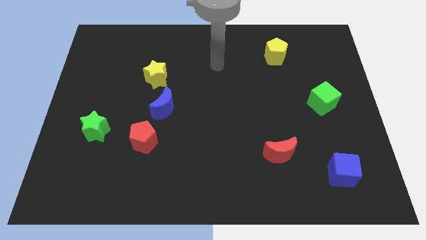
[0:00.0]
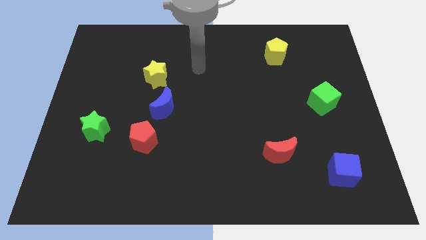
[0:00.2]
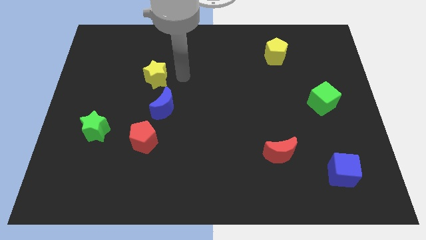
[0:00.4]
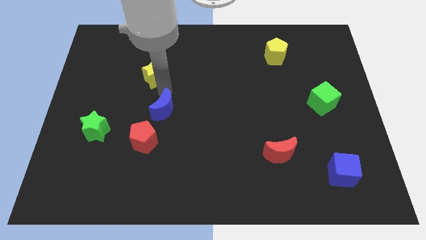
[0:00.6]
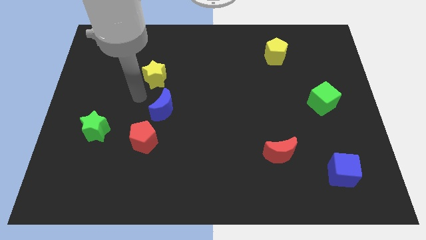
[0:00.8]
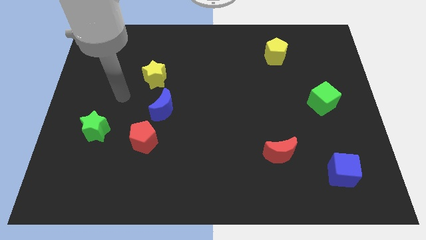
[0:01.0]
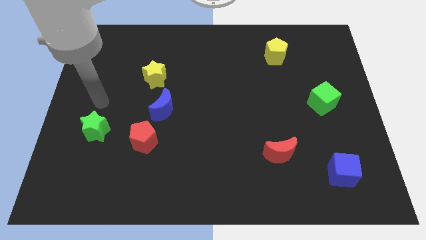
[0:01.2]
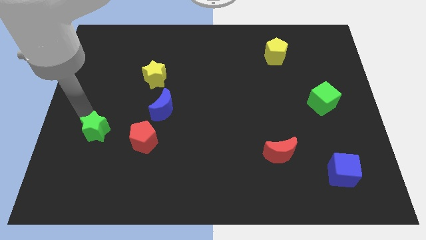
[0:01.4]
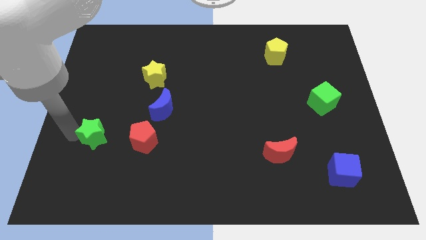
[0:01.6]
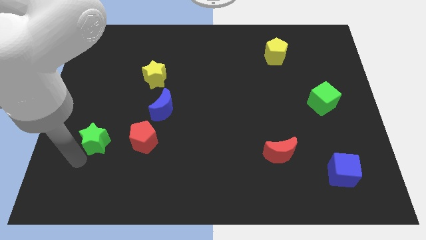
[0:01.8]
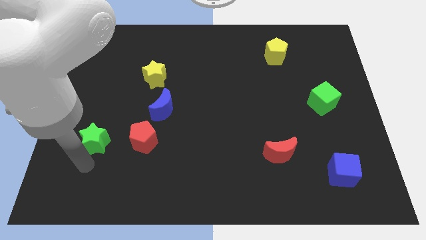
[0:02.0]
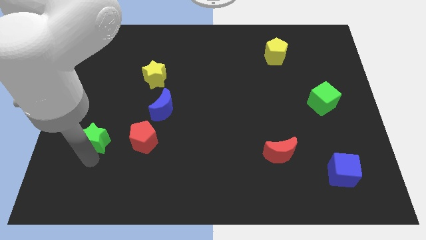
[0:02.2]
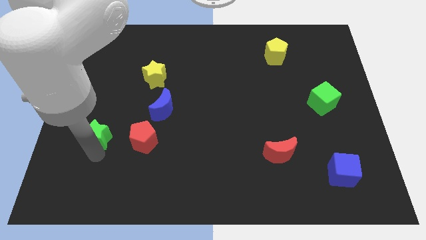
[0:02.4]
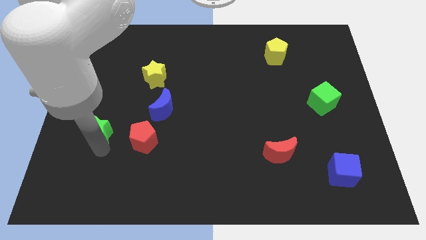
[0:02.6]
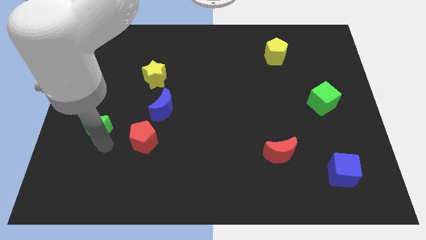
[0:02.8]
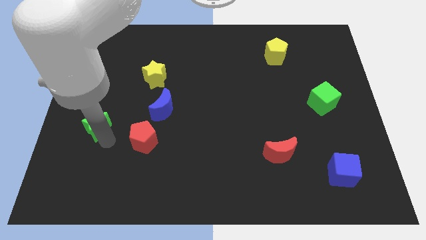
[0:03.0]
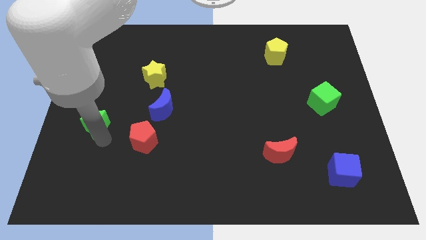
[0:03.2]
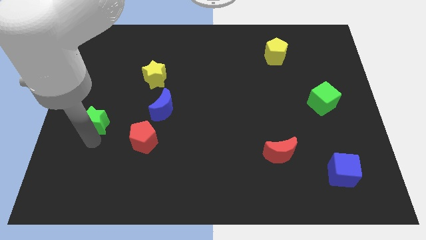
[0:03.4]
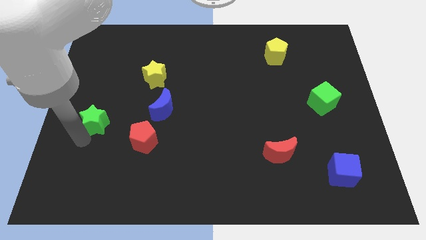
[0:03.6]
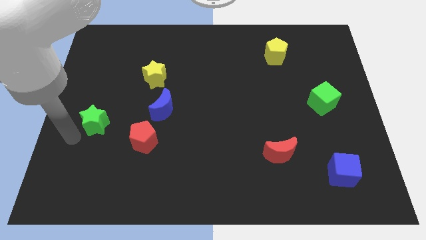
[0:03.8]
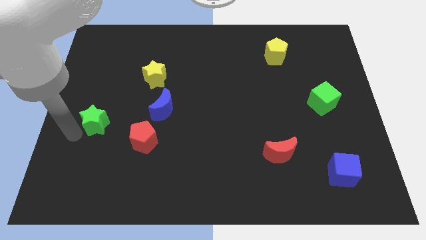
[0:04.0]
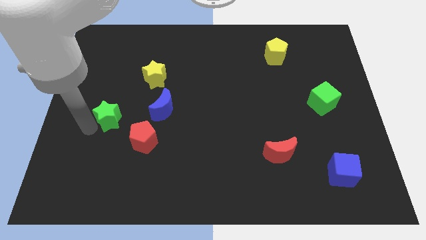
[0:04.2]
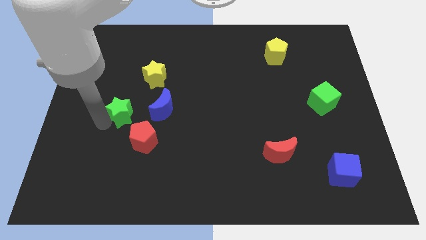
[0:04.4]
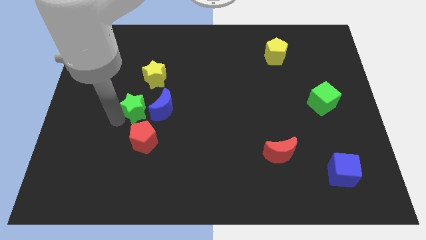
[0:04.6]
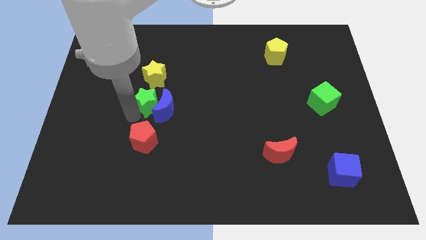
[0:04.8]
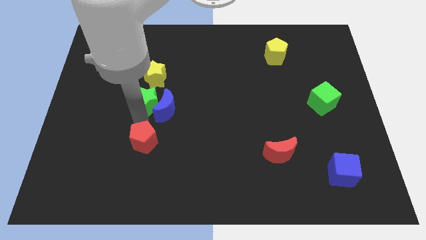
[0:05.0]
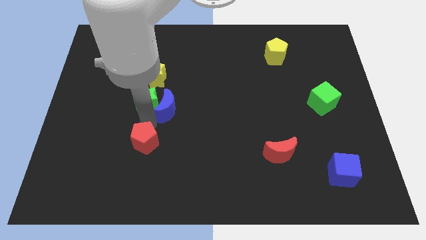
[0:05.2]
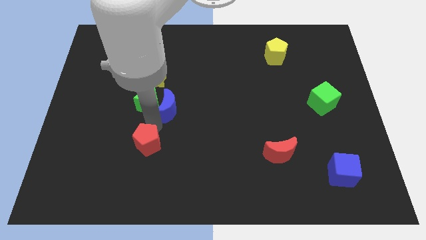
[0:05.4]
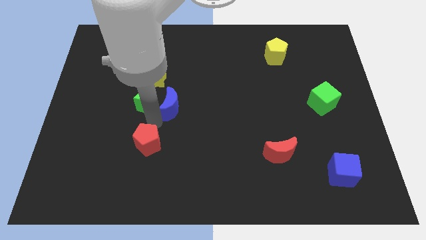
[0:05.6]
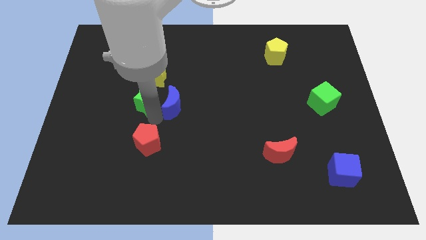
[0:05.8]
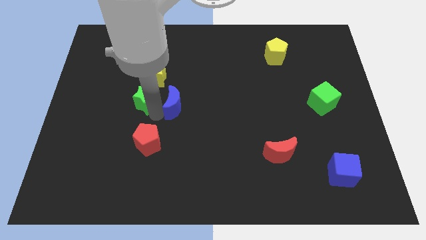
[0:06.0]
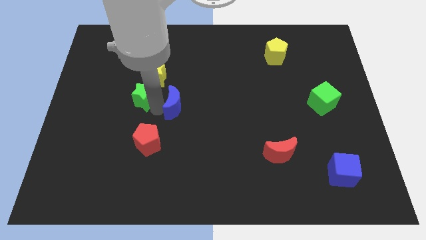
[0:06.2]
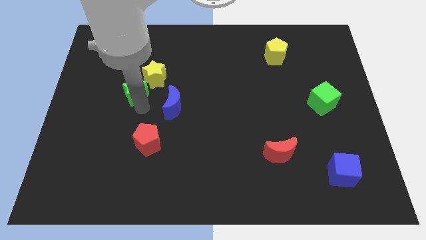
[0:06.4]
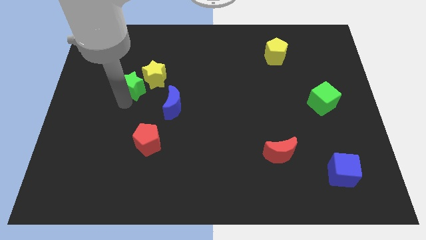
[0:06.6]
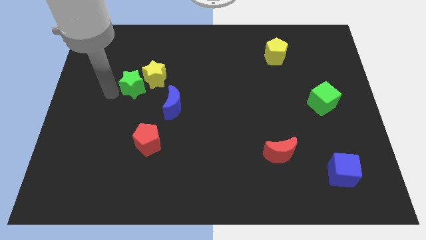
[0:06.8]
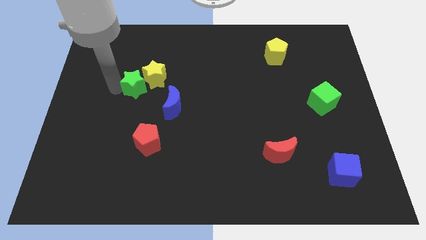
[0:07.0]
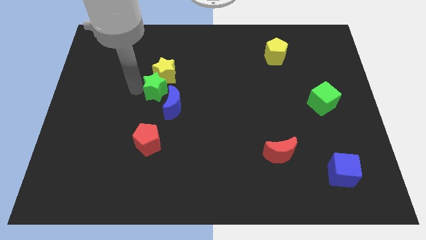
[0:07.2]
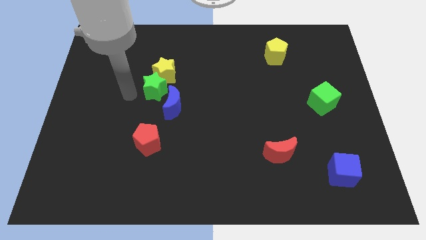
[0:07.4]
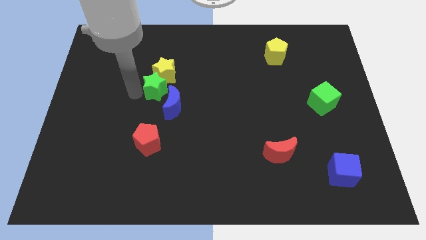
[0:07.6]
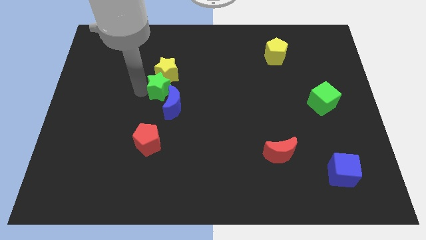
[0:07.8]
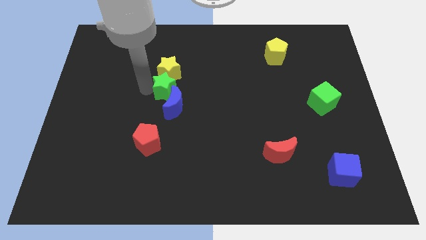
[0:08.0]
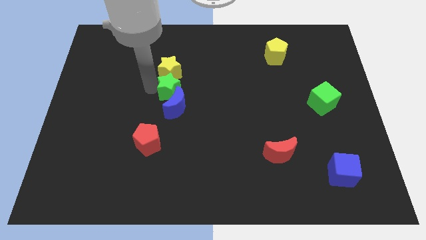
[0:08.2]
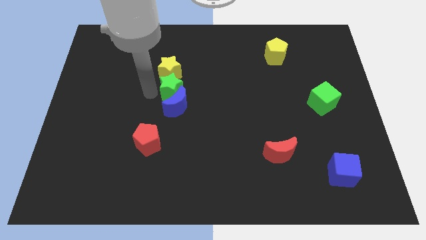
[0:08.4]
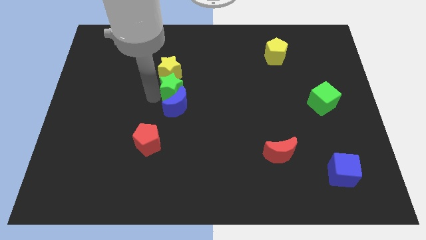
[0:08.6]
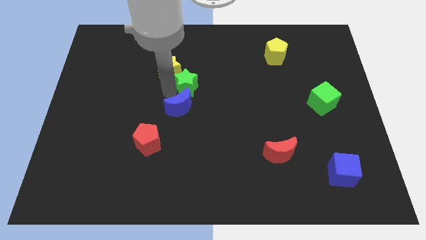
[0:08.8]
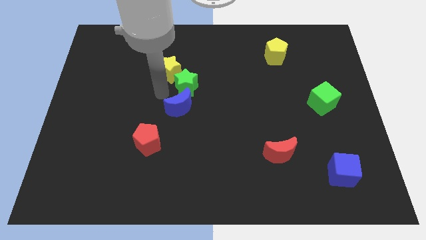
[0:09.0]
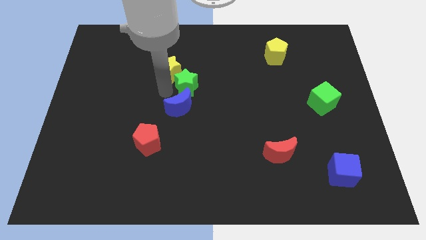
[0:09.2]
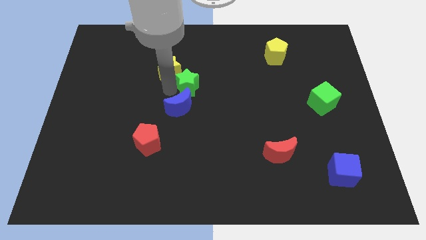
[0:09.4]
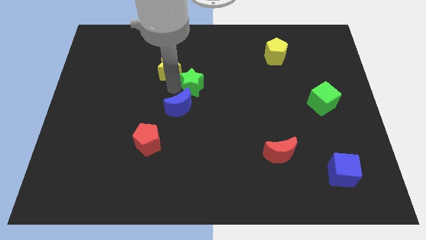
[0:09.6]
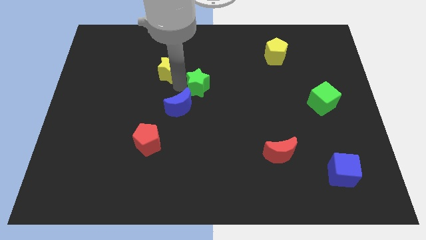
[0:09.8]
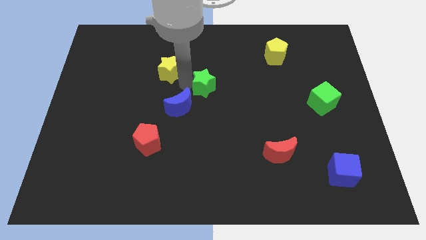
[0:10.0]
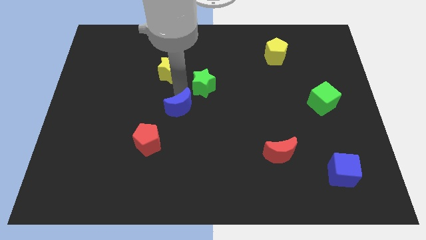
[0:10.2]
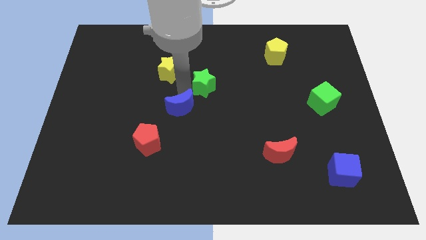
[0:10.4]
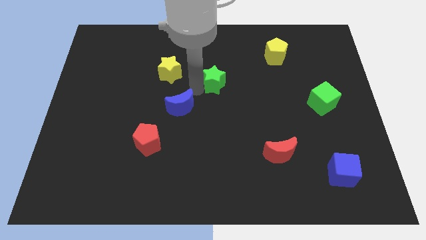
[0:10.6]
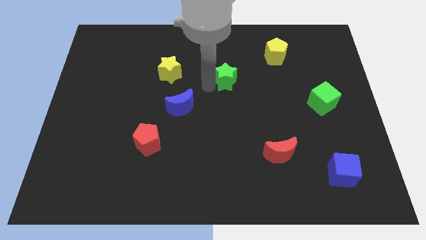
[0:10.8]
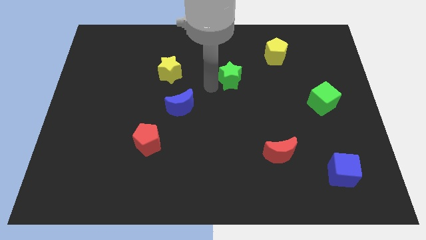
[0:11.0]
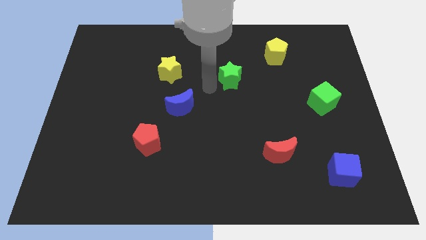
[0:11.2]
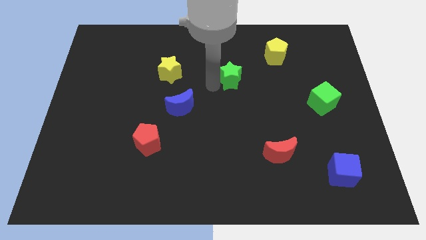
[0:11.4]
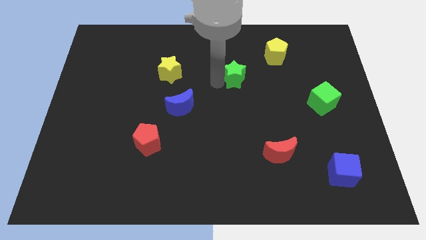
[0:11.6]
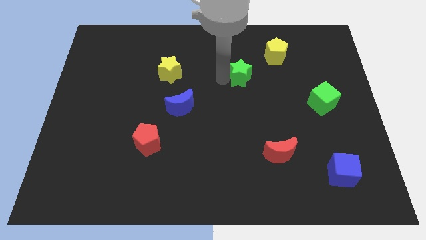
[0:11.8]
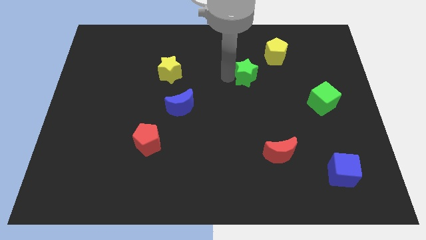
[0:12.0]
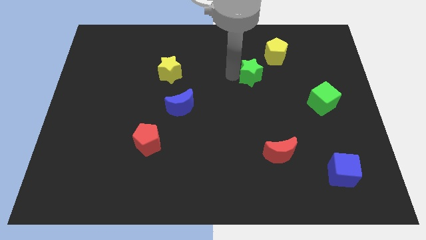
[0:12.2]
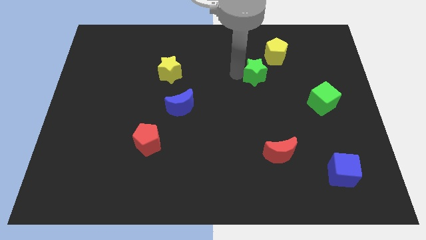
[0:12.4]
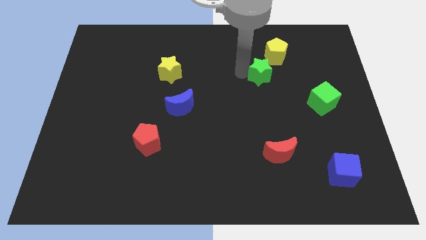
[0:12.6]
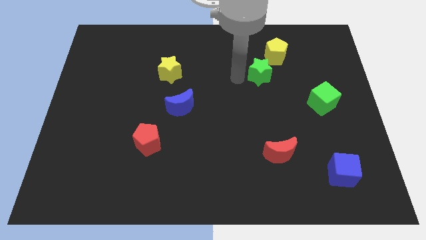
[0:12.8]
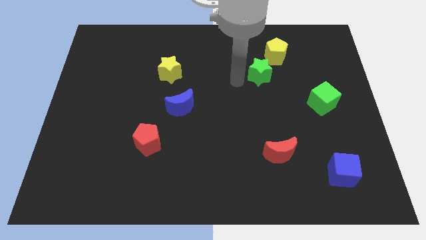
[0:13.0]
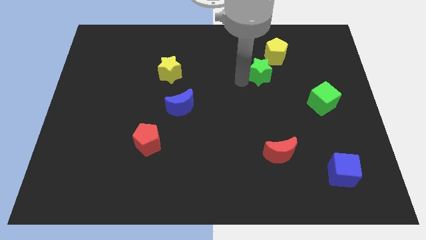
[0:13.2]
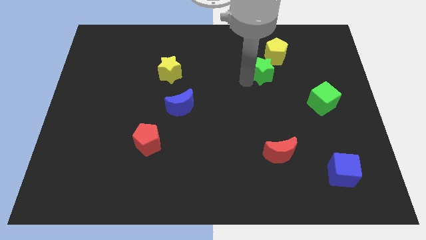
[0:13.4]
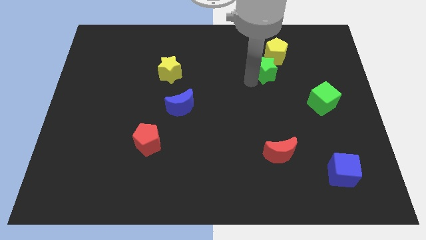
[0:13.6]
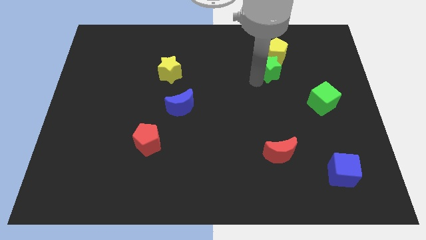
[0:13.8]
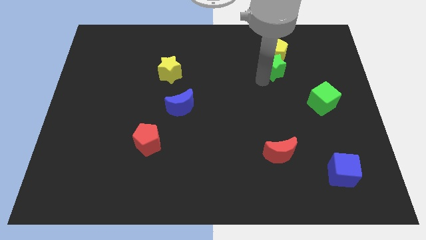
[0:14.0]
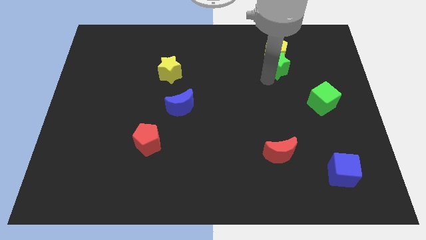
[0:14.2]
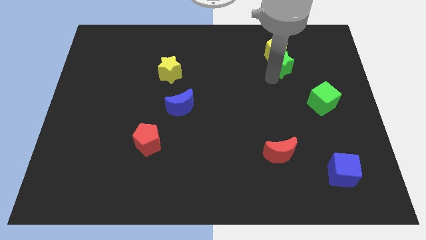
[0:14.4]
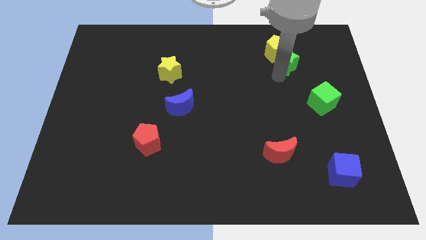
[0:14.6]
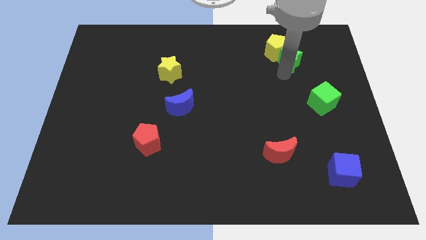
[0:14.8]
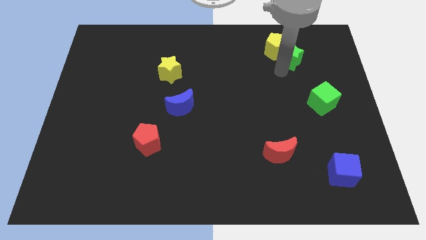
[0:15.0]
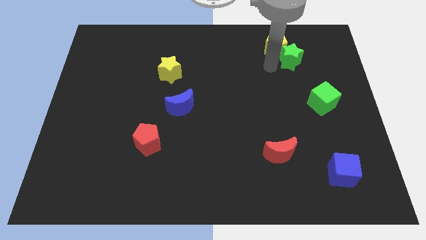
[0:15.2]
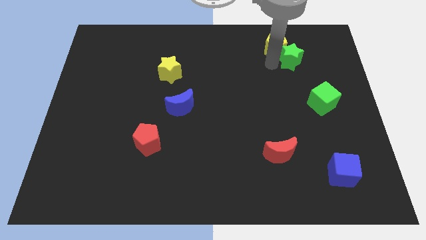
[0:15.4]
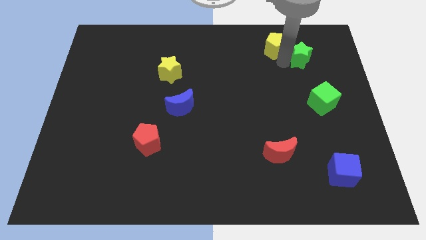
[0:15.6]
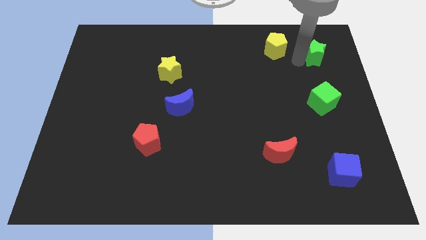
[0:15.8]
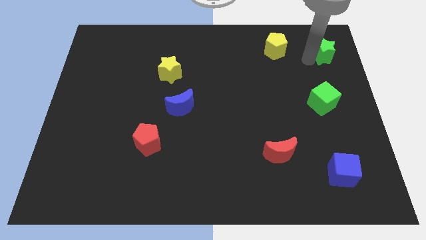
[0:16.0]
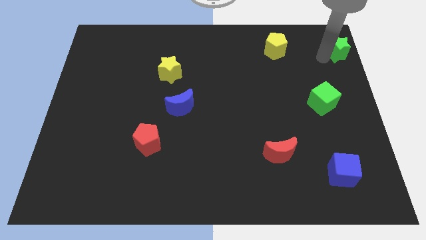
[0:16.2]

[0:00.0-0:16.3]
push the green star to the upper right corner

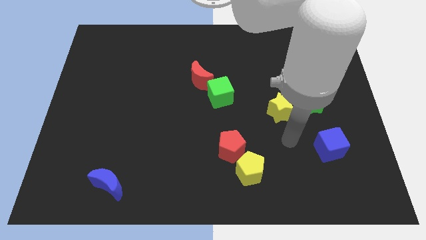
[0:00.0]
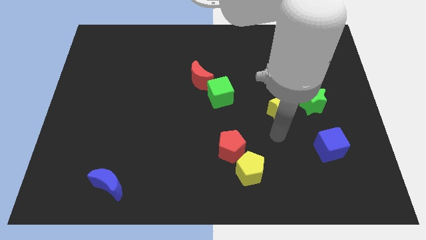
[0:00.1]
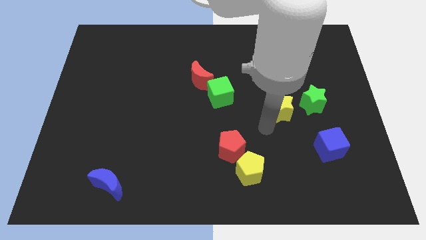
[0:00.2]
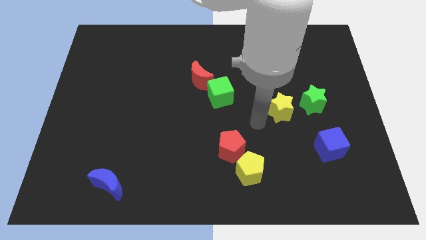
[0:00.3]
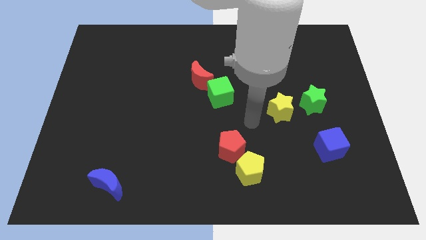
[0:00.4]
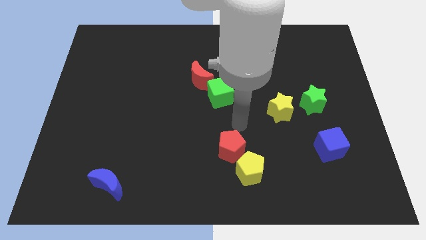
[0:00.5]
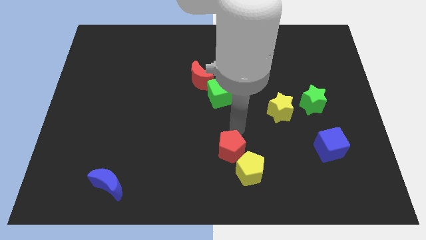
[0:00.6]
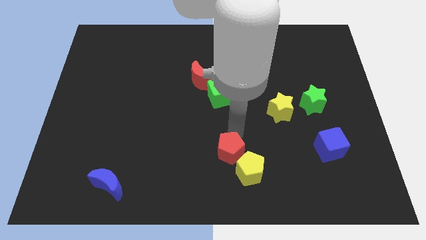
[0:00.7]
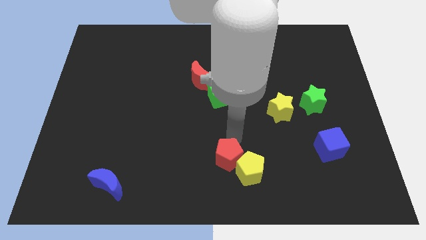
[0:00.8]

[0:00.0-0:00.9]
put the red pentagon to the bottom
